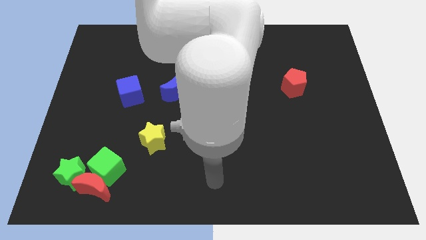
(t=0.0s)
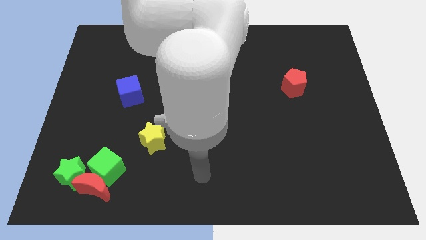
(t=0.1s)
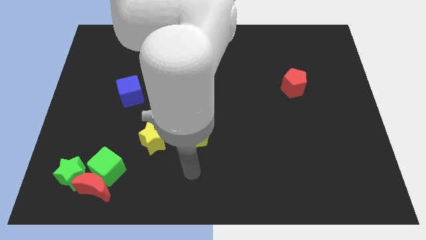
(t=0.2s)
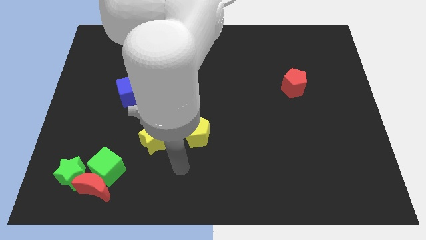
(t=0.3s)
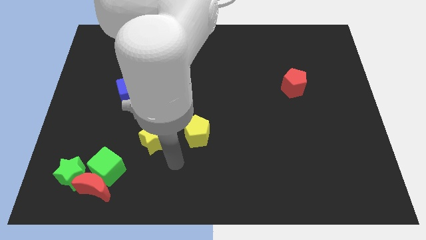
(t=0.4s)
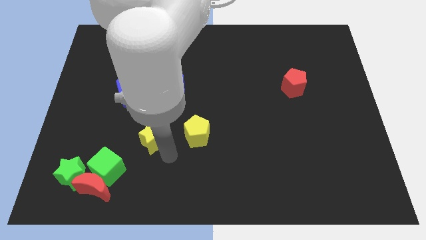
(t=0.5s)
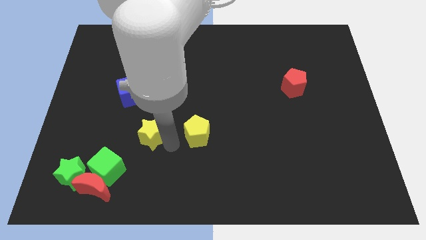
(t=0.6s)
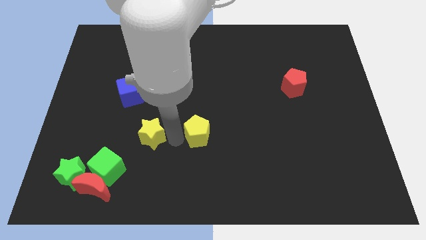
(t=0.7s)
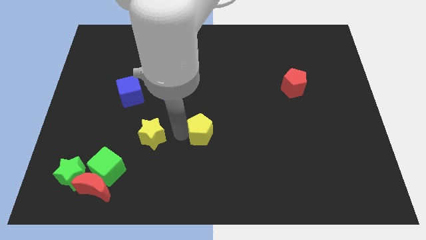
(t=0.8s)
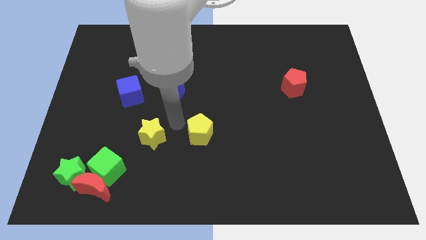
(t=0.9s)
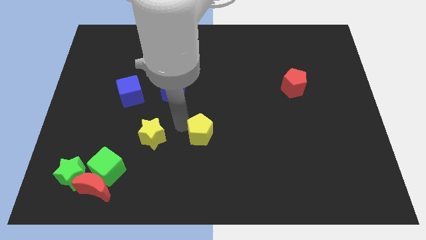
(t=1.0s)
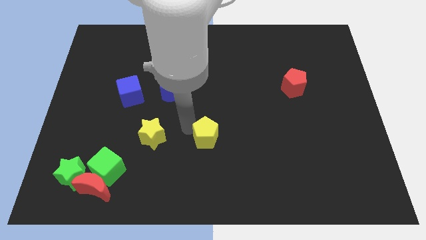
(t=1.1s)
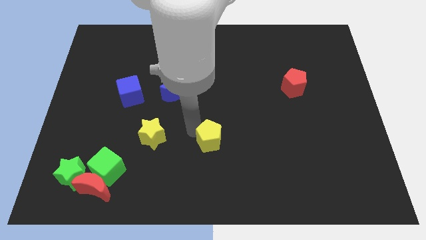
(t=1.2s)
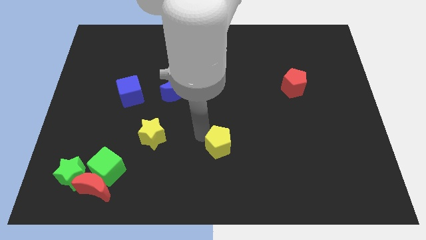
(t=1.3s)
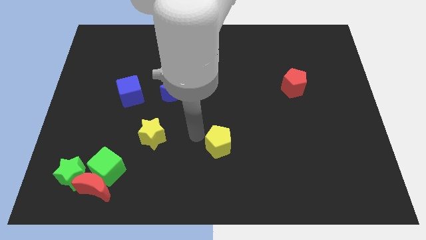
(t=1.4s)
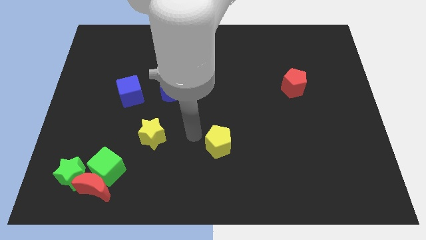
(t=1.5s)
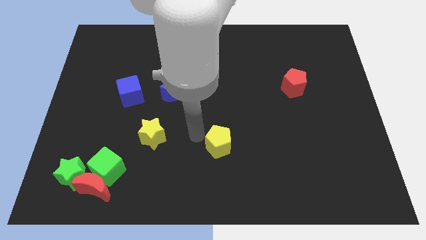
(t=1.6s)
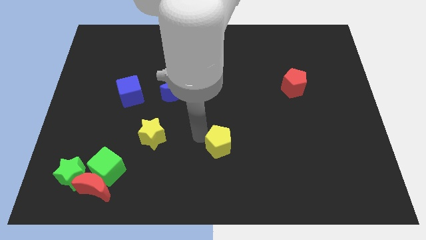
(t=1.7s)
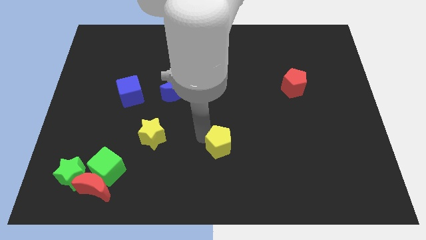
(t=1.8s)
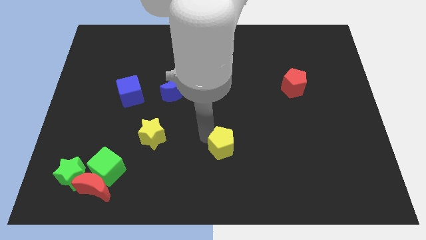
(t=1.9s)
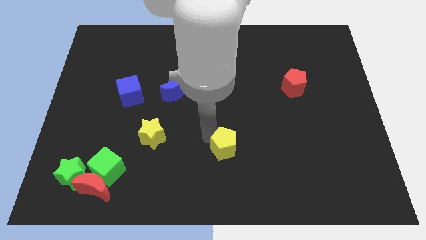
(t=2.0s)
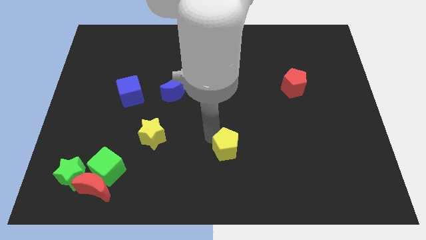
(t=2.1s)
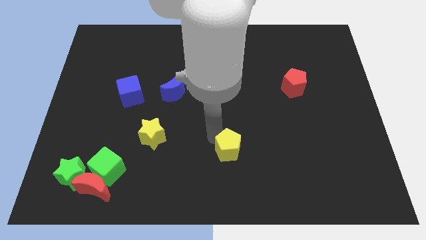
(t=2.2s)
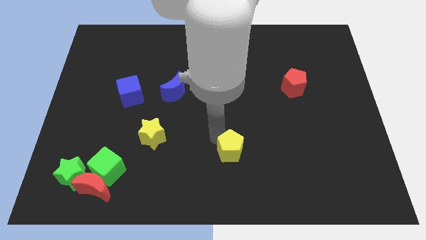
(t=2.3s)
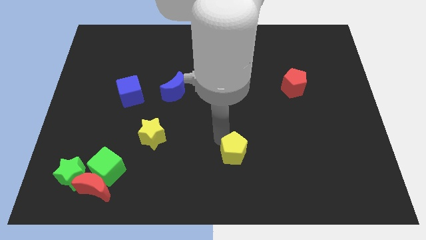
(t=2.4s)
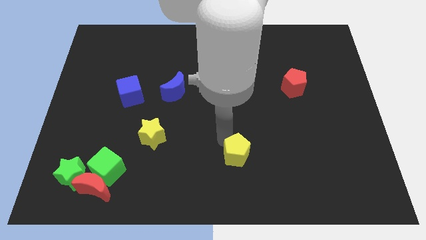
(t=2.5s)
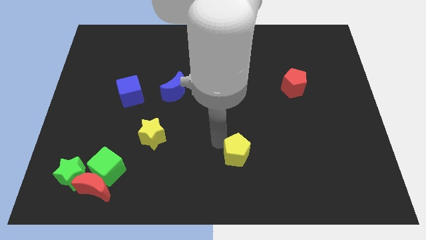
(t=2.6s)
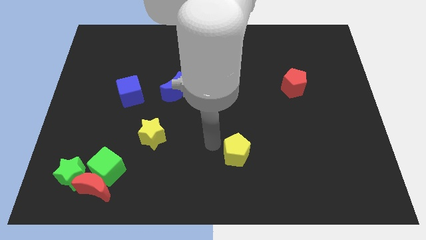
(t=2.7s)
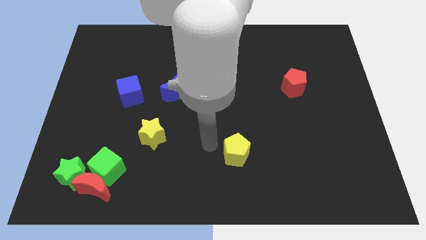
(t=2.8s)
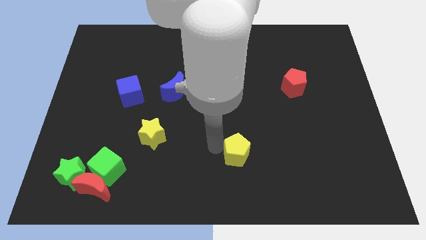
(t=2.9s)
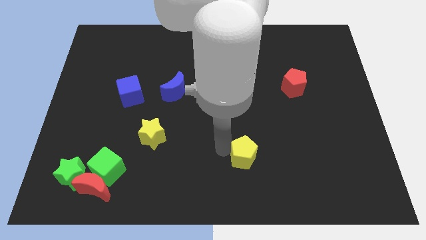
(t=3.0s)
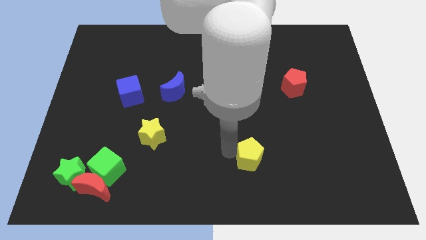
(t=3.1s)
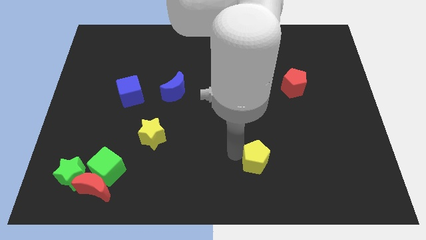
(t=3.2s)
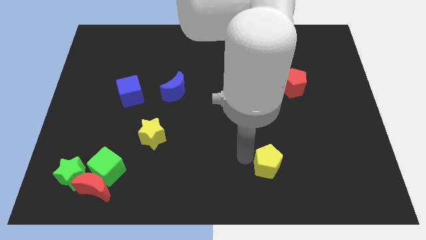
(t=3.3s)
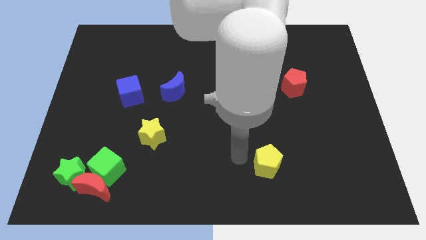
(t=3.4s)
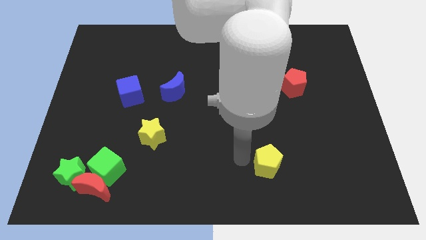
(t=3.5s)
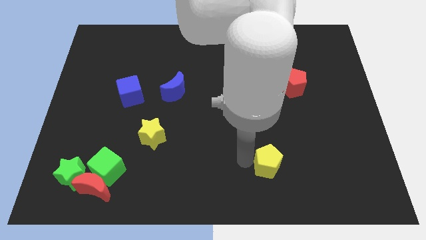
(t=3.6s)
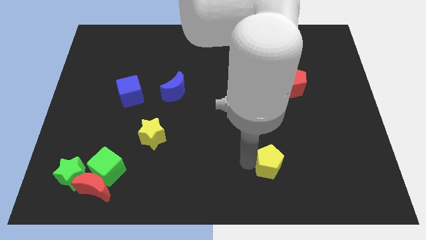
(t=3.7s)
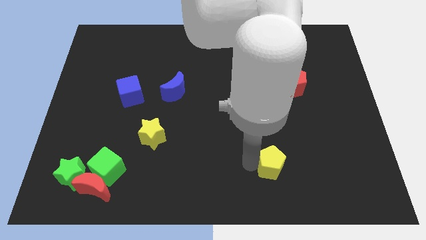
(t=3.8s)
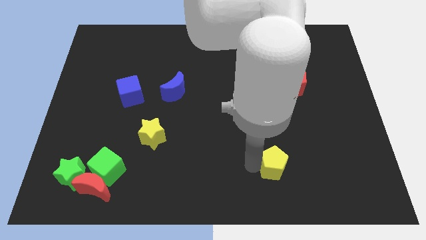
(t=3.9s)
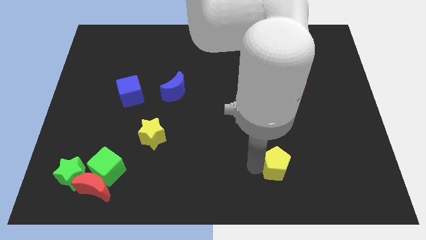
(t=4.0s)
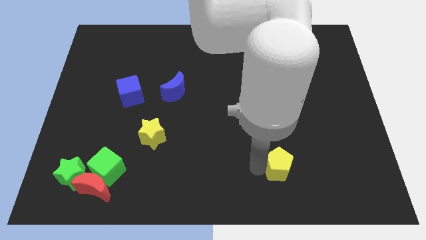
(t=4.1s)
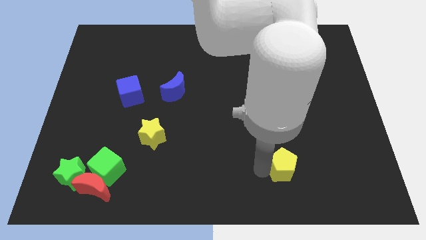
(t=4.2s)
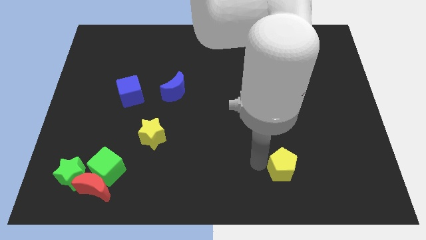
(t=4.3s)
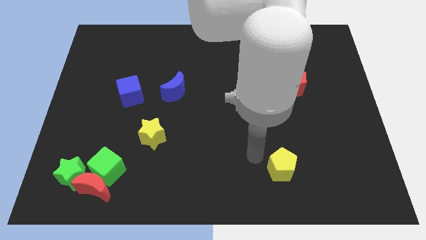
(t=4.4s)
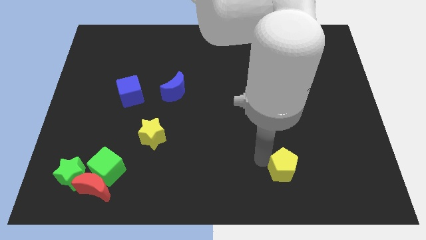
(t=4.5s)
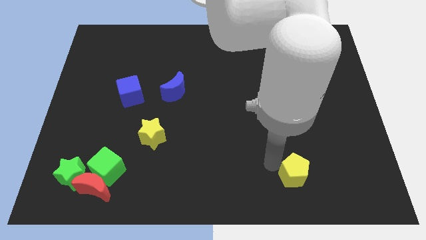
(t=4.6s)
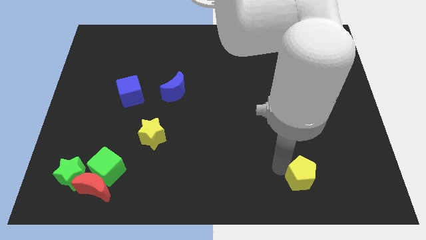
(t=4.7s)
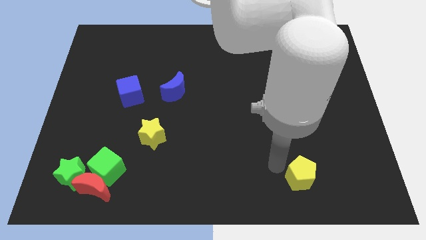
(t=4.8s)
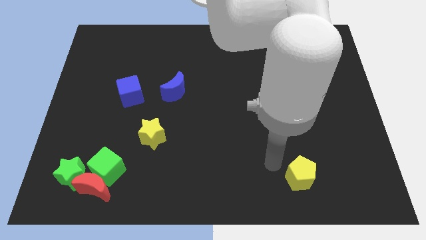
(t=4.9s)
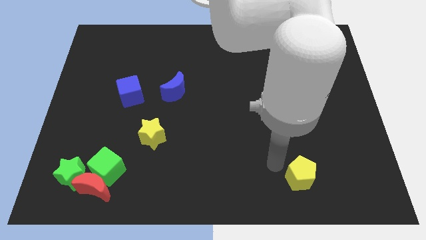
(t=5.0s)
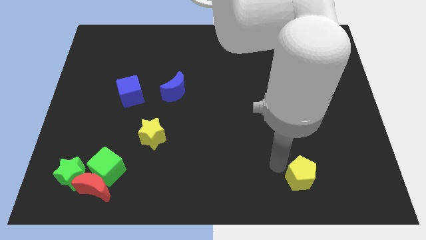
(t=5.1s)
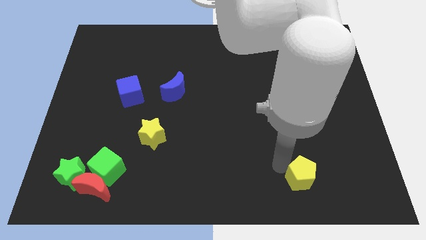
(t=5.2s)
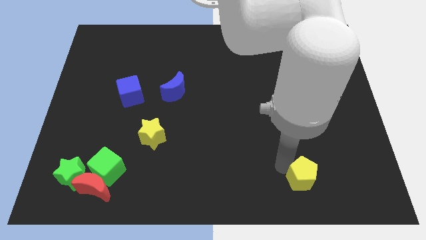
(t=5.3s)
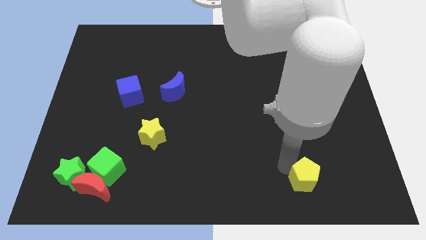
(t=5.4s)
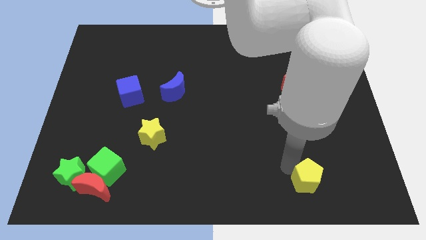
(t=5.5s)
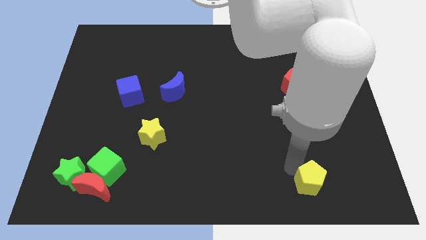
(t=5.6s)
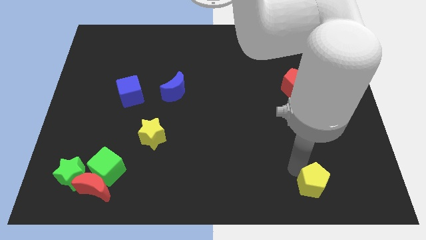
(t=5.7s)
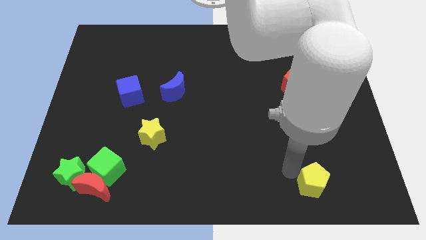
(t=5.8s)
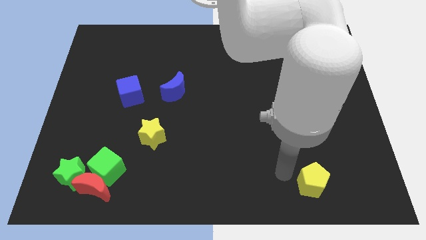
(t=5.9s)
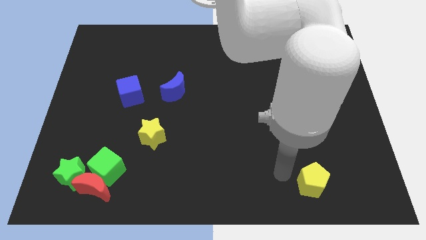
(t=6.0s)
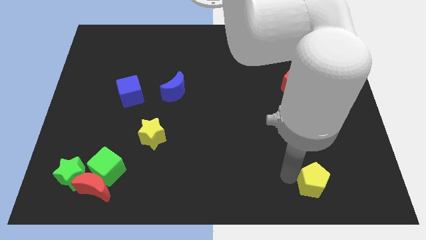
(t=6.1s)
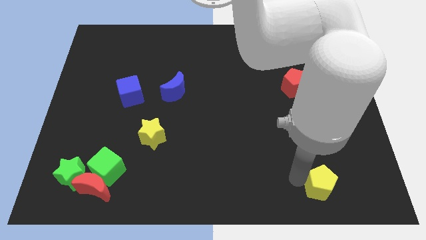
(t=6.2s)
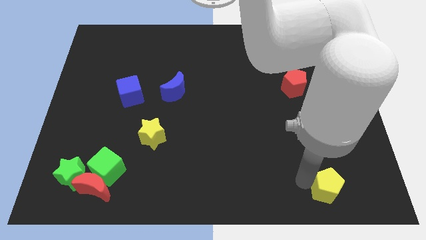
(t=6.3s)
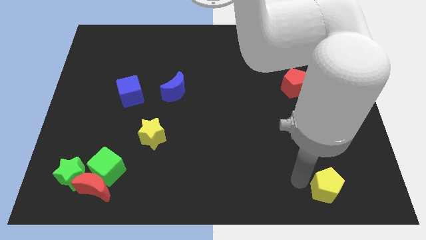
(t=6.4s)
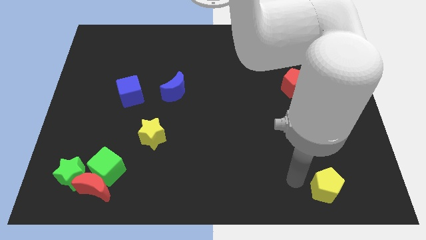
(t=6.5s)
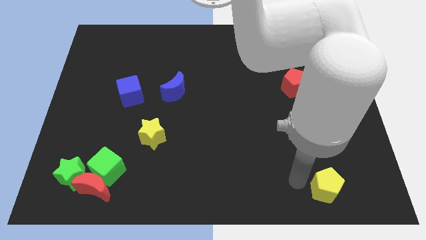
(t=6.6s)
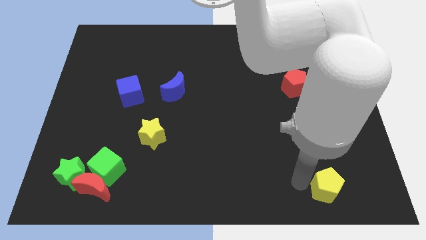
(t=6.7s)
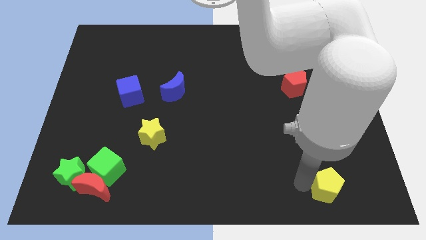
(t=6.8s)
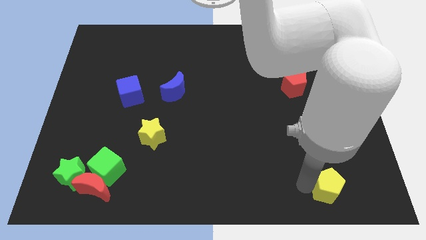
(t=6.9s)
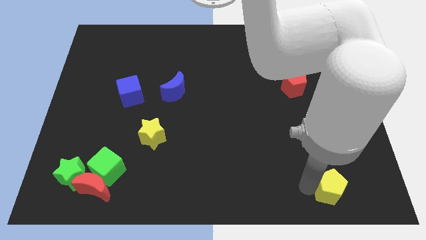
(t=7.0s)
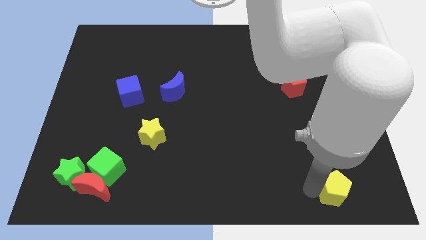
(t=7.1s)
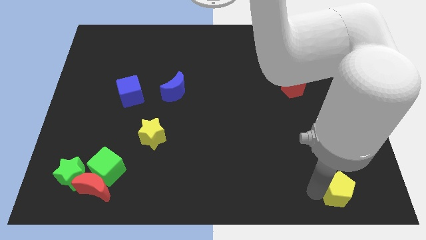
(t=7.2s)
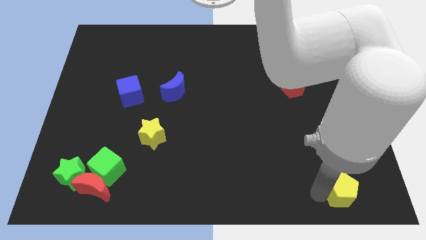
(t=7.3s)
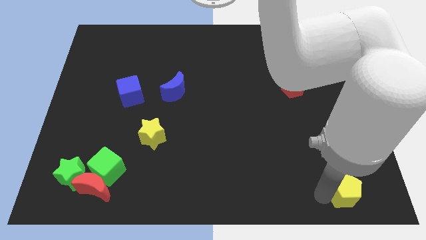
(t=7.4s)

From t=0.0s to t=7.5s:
put the yellow pentagon to the bottom right
